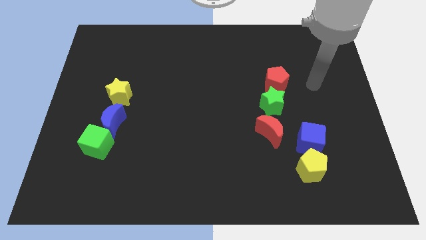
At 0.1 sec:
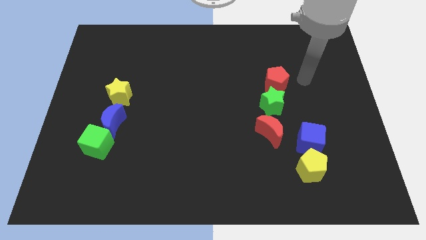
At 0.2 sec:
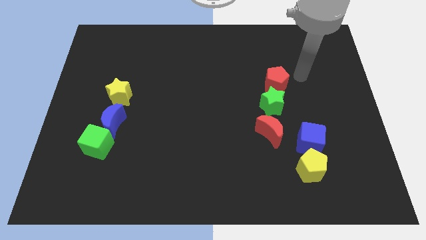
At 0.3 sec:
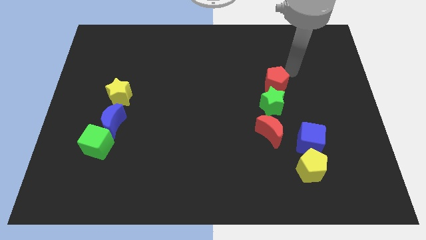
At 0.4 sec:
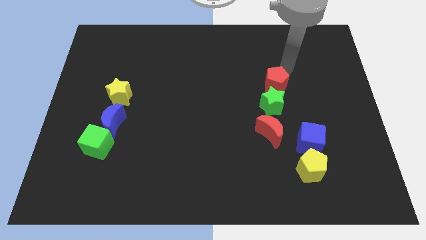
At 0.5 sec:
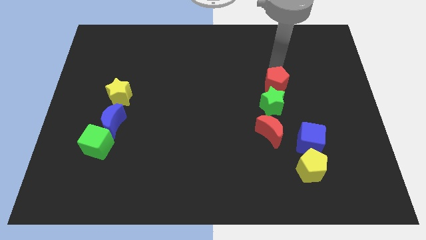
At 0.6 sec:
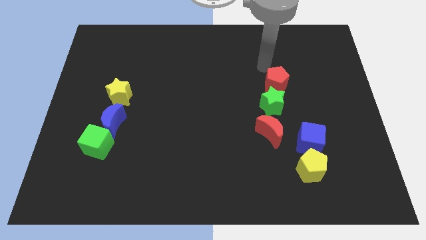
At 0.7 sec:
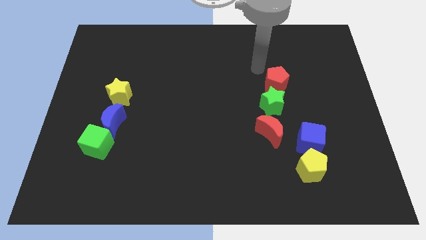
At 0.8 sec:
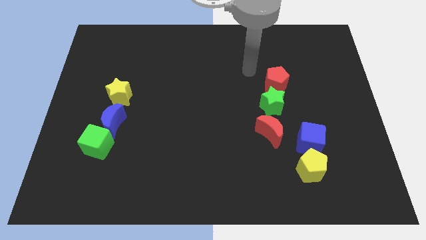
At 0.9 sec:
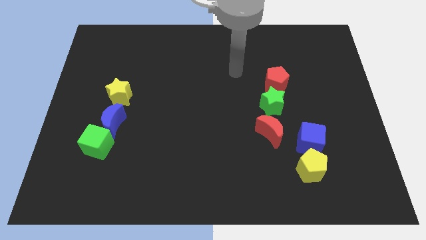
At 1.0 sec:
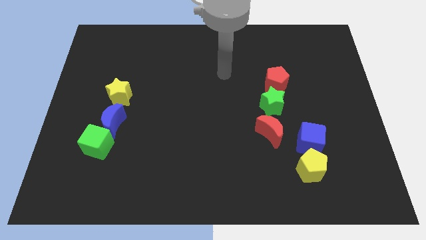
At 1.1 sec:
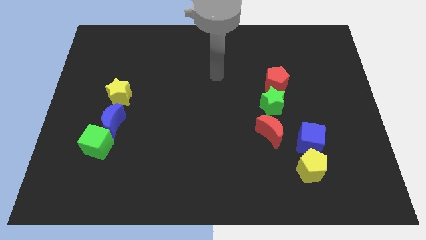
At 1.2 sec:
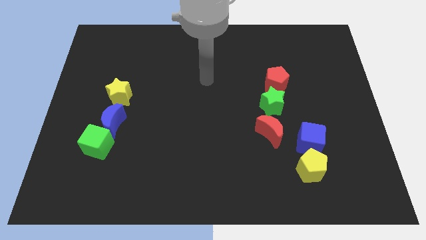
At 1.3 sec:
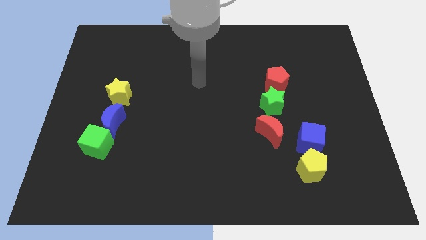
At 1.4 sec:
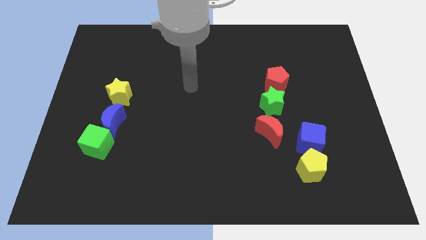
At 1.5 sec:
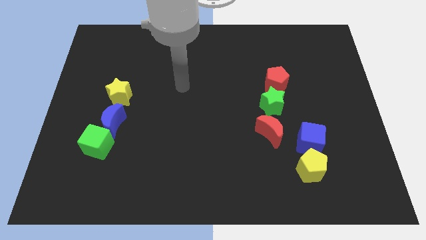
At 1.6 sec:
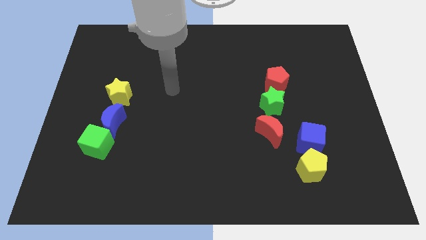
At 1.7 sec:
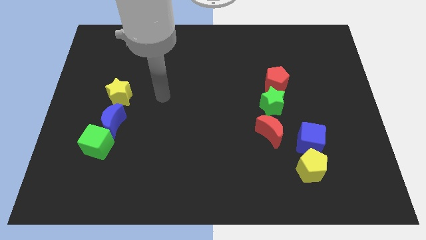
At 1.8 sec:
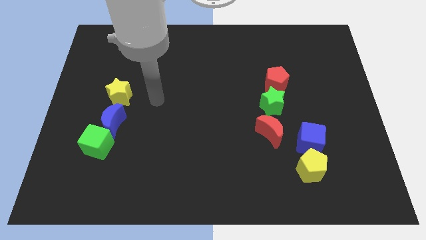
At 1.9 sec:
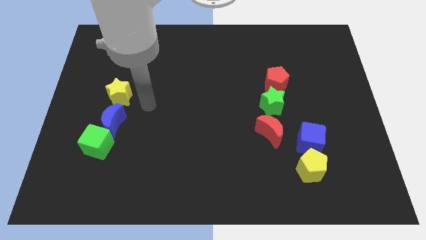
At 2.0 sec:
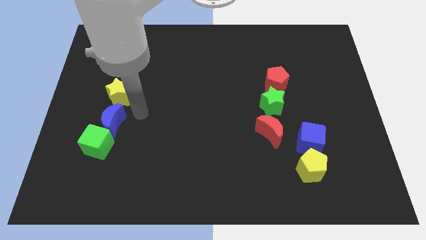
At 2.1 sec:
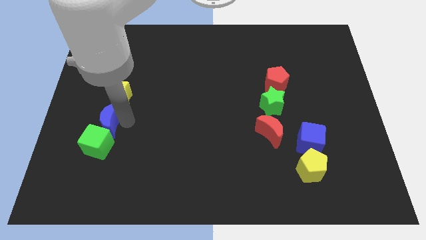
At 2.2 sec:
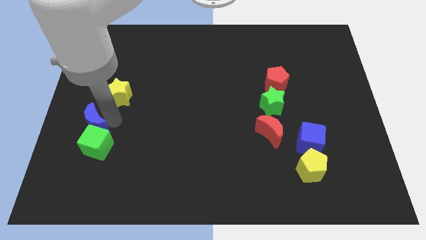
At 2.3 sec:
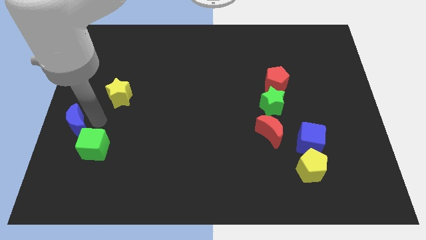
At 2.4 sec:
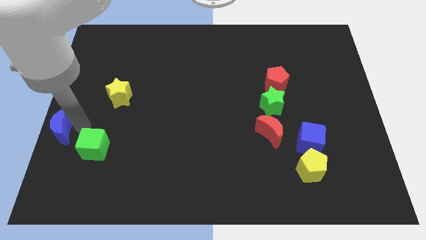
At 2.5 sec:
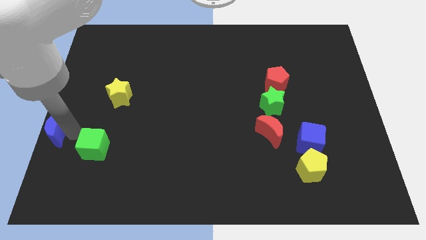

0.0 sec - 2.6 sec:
pull the green cube apart from the blue moon

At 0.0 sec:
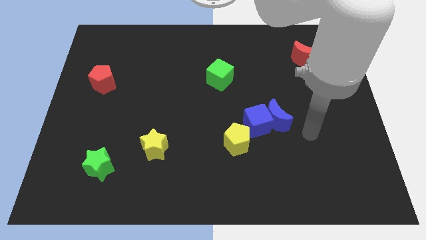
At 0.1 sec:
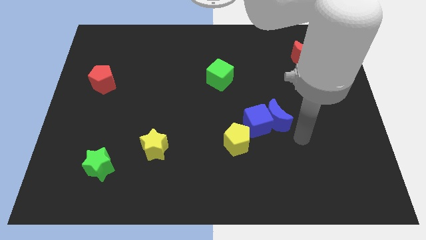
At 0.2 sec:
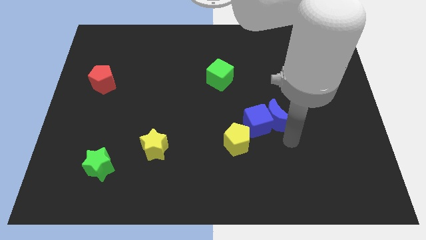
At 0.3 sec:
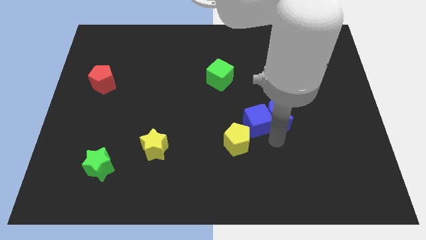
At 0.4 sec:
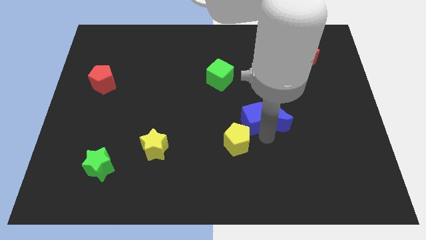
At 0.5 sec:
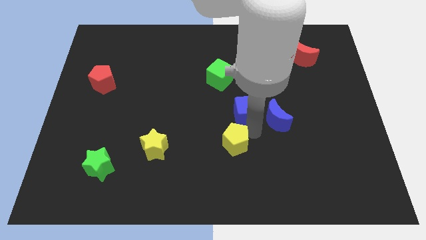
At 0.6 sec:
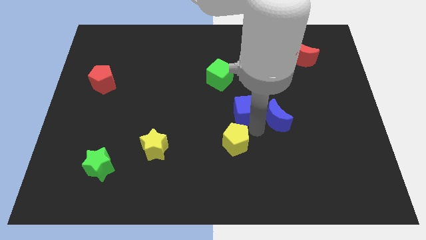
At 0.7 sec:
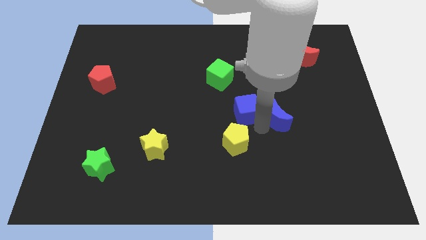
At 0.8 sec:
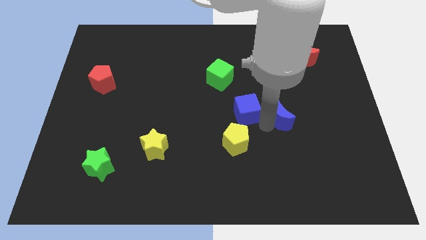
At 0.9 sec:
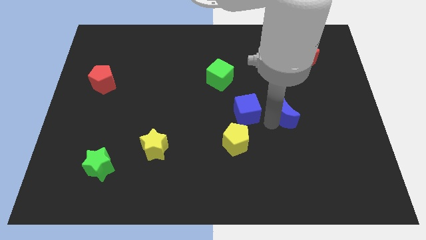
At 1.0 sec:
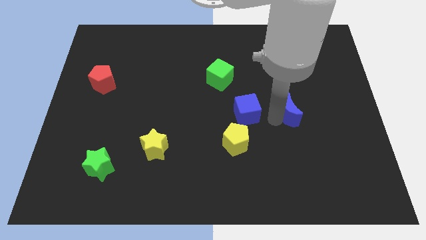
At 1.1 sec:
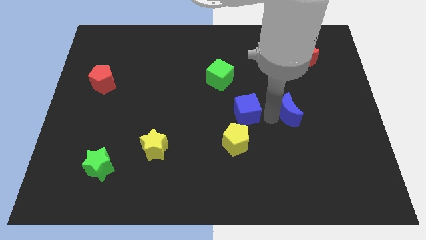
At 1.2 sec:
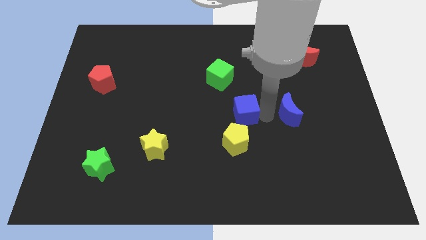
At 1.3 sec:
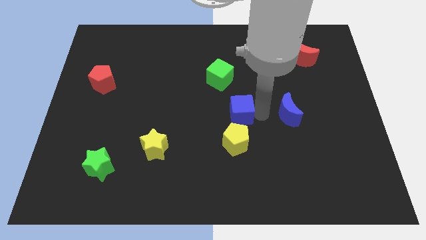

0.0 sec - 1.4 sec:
separate the blue moon from the blue cube

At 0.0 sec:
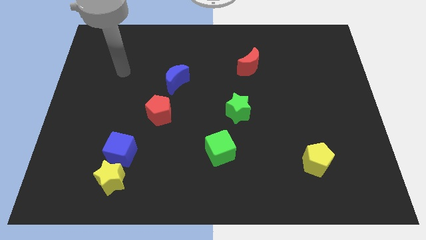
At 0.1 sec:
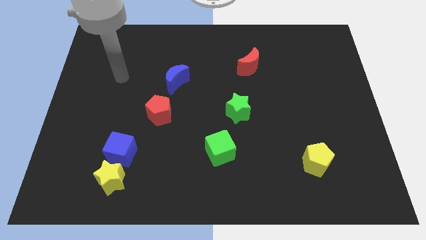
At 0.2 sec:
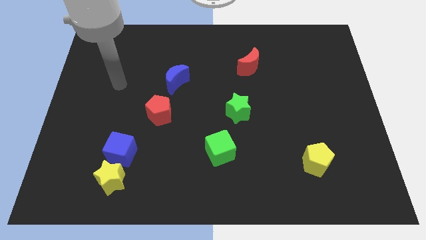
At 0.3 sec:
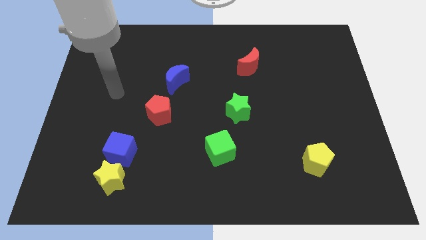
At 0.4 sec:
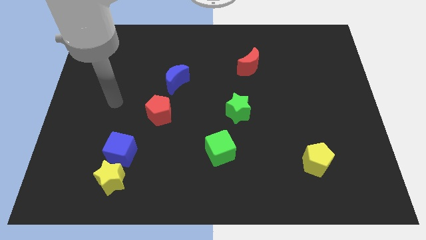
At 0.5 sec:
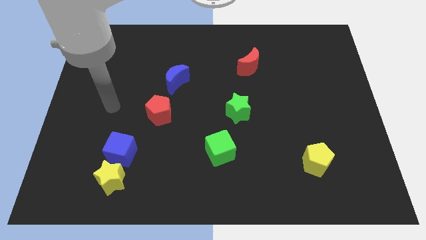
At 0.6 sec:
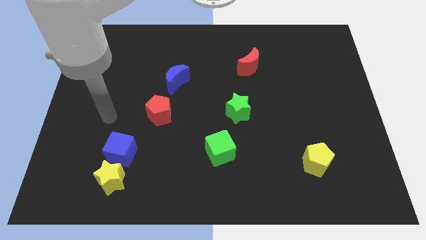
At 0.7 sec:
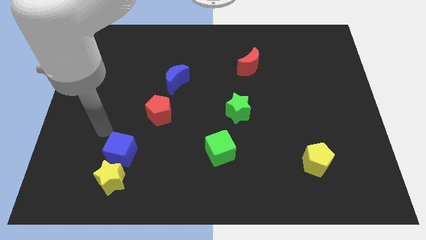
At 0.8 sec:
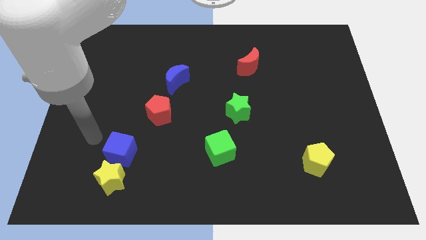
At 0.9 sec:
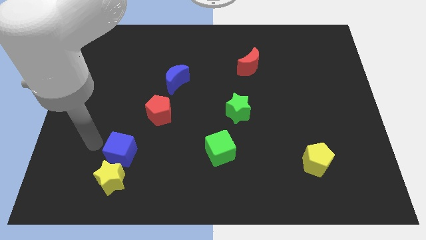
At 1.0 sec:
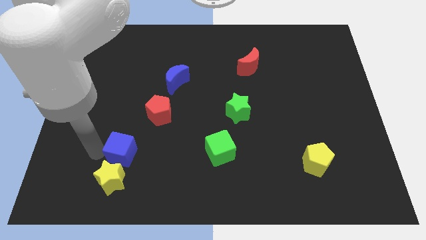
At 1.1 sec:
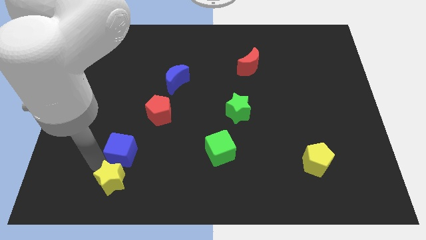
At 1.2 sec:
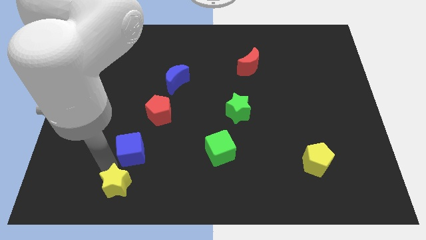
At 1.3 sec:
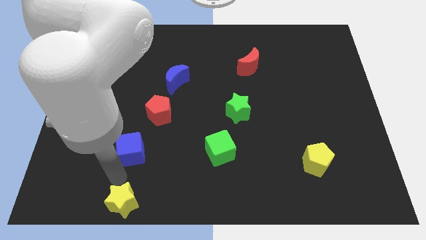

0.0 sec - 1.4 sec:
move the blue cube away from the yellow star

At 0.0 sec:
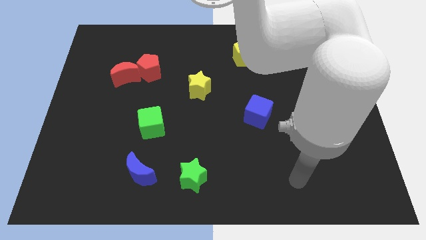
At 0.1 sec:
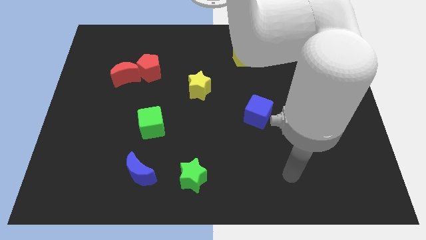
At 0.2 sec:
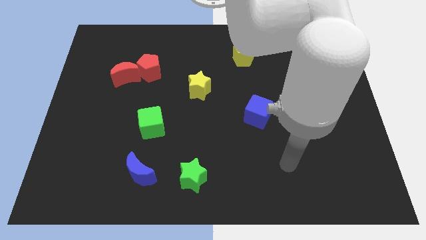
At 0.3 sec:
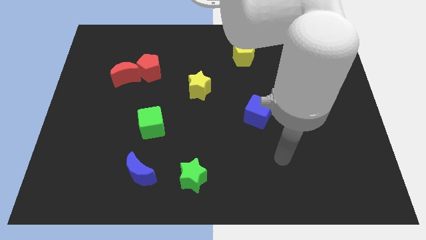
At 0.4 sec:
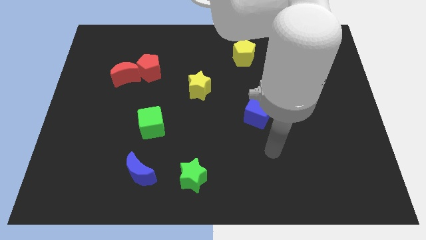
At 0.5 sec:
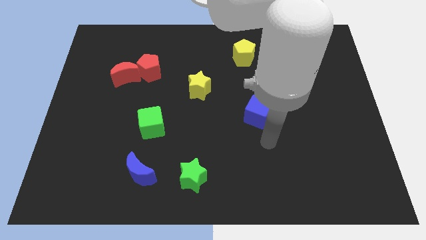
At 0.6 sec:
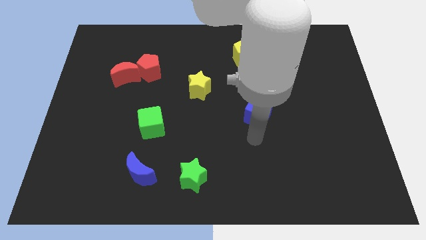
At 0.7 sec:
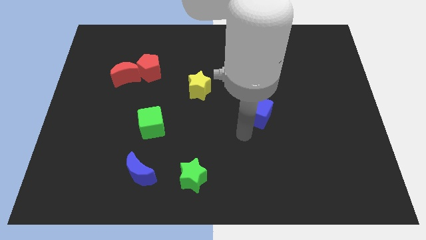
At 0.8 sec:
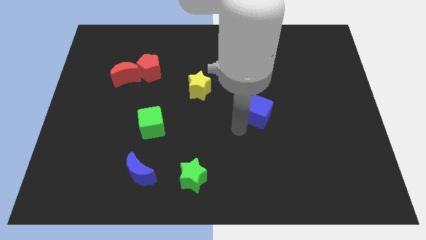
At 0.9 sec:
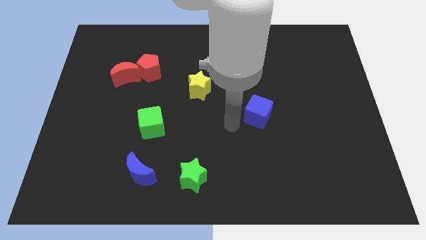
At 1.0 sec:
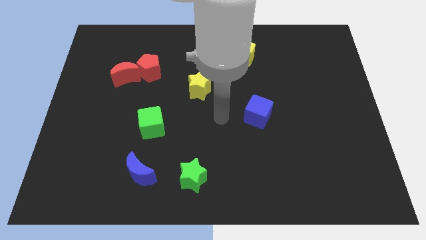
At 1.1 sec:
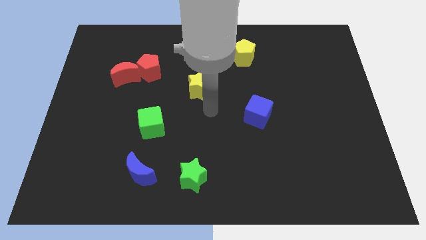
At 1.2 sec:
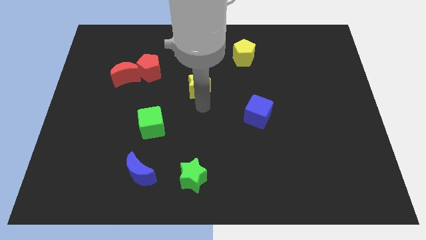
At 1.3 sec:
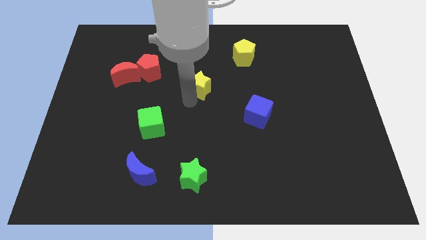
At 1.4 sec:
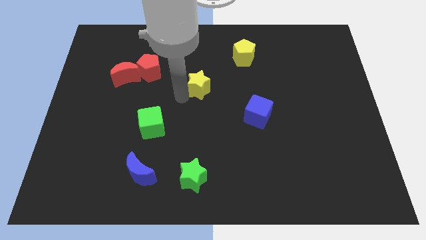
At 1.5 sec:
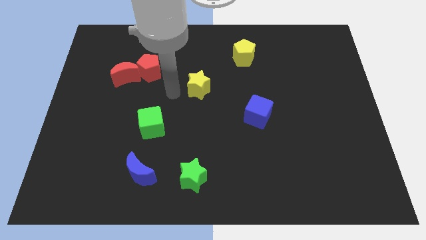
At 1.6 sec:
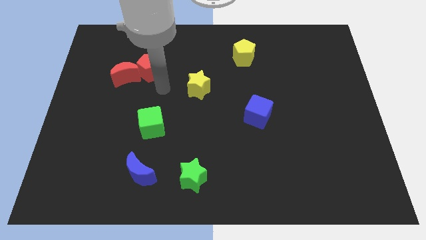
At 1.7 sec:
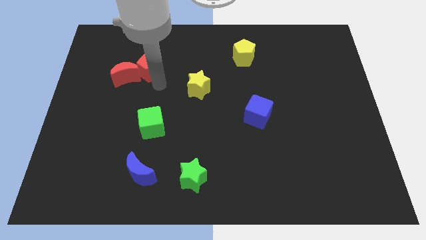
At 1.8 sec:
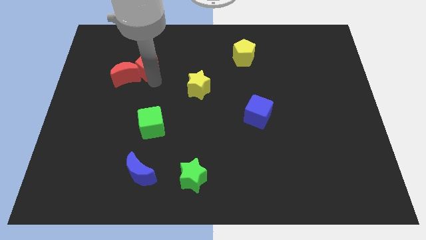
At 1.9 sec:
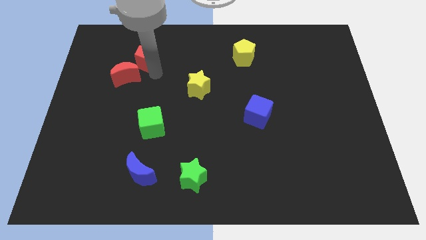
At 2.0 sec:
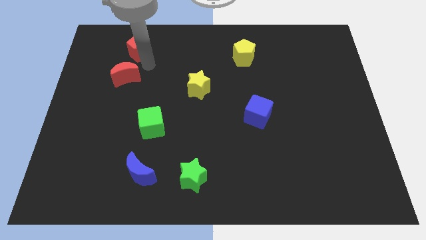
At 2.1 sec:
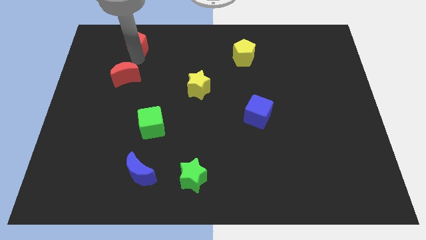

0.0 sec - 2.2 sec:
separate the red moon from the red pentagon

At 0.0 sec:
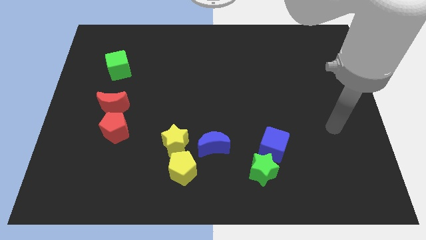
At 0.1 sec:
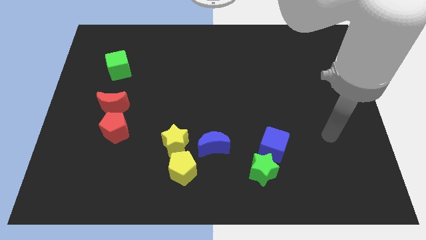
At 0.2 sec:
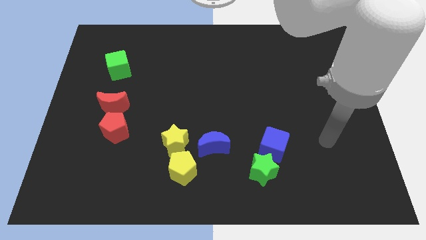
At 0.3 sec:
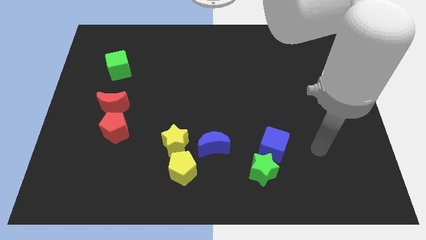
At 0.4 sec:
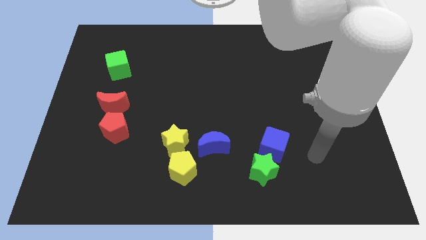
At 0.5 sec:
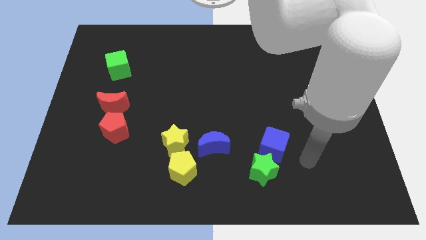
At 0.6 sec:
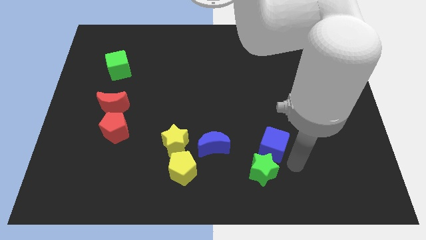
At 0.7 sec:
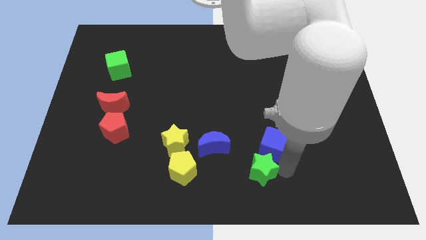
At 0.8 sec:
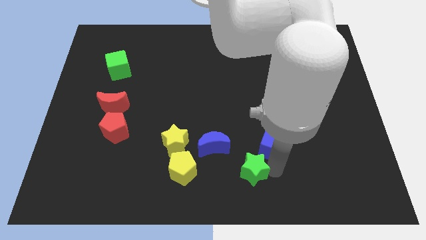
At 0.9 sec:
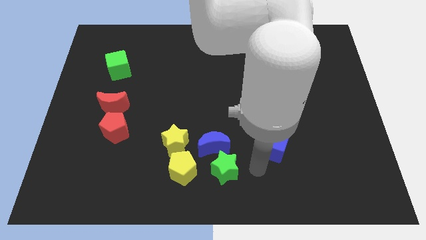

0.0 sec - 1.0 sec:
move the blue cube away from the green star

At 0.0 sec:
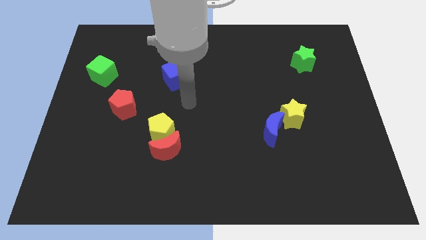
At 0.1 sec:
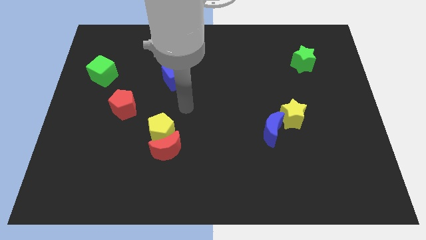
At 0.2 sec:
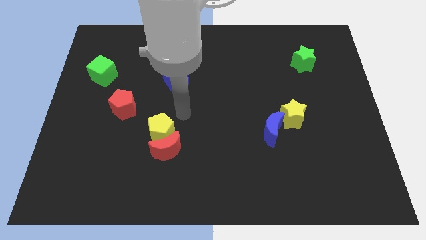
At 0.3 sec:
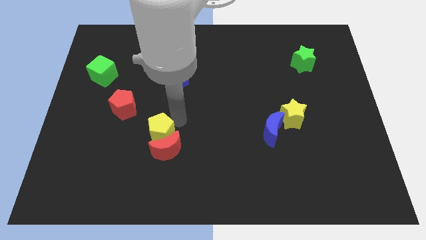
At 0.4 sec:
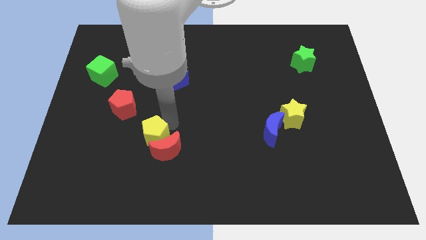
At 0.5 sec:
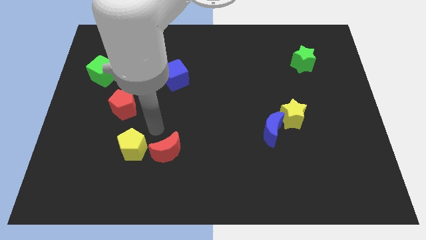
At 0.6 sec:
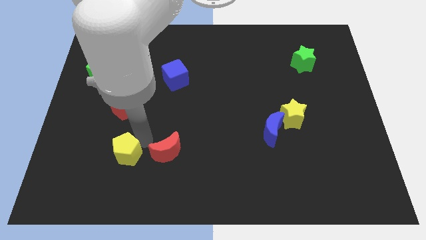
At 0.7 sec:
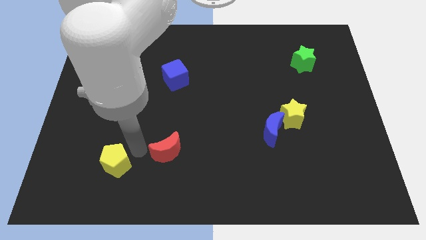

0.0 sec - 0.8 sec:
move the red moon away from the yellow pentagon
